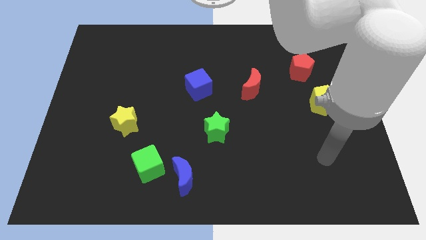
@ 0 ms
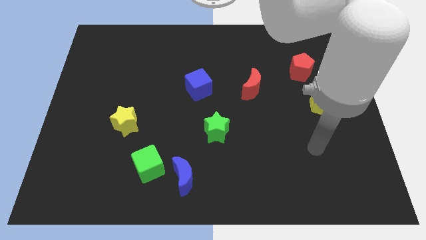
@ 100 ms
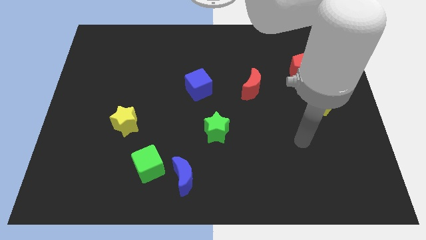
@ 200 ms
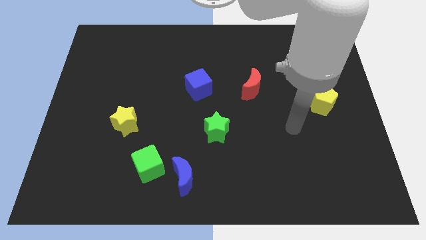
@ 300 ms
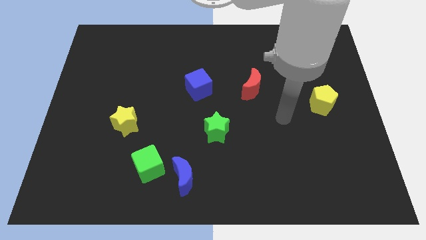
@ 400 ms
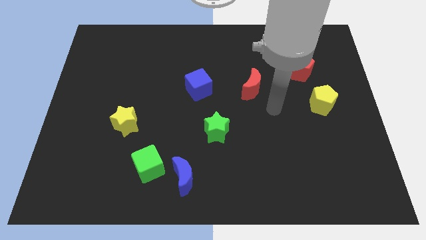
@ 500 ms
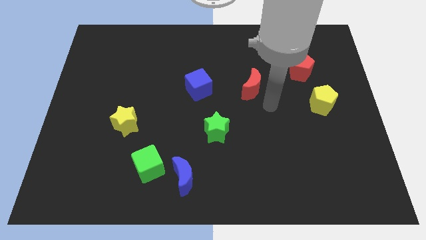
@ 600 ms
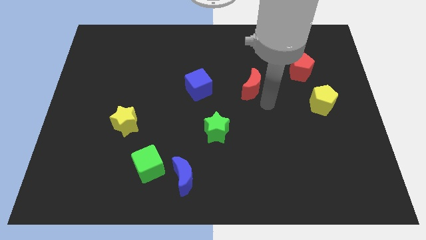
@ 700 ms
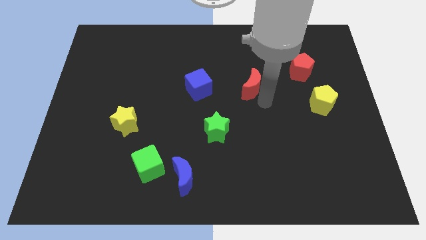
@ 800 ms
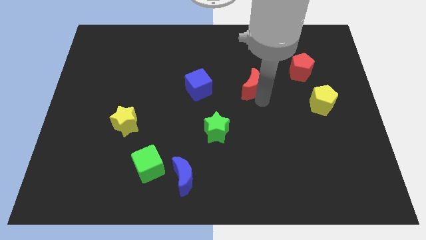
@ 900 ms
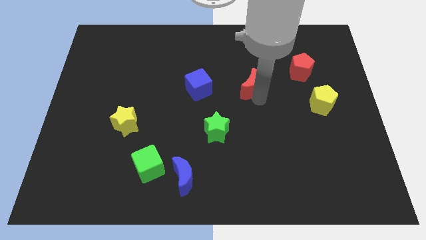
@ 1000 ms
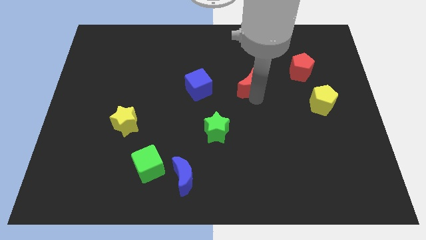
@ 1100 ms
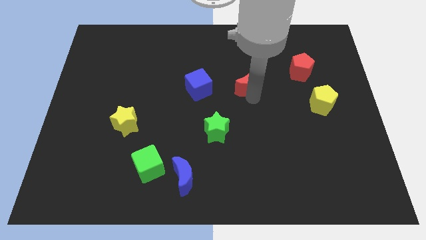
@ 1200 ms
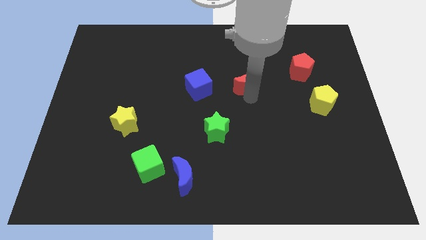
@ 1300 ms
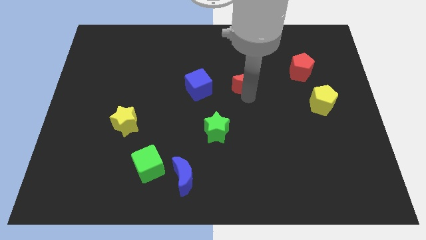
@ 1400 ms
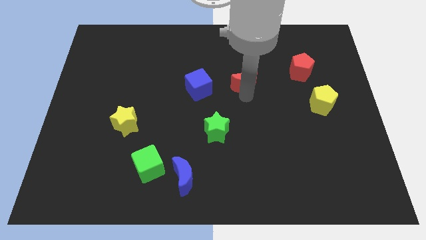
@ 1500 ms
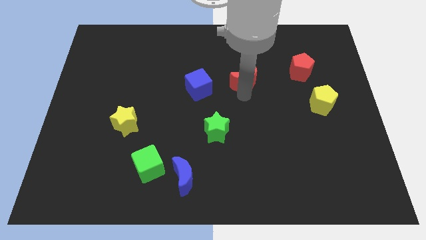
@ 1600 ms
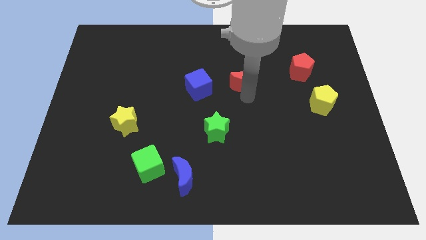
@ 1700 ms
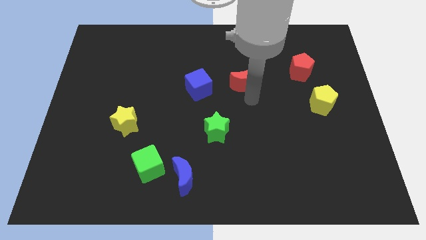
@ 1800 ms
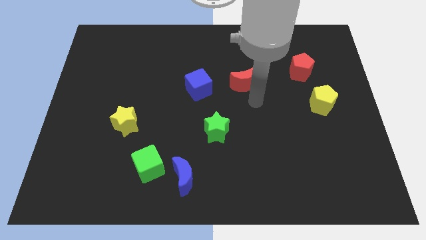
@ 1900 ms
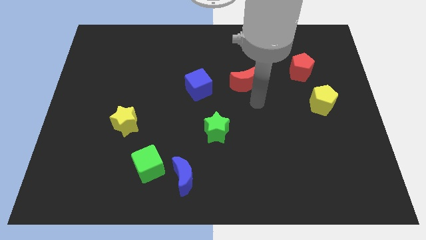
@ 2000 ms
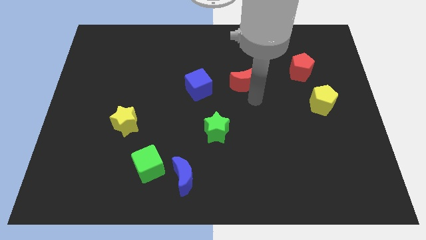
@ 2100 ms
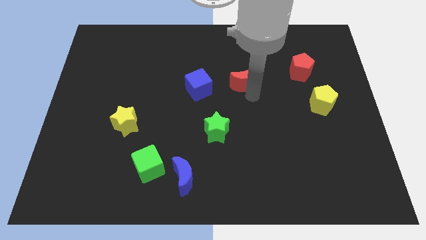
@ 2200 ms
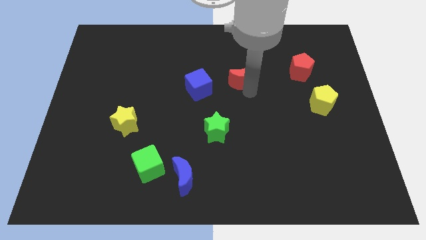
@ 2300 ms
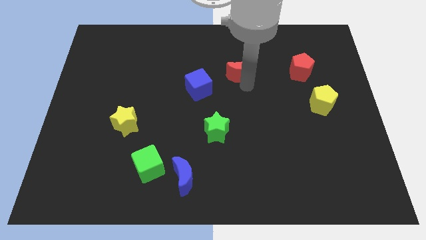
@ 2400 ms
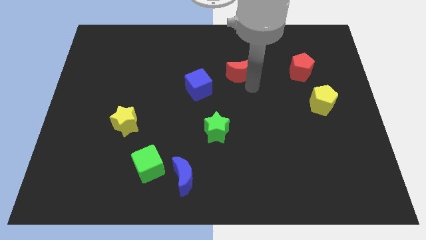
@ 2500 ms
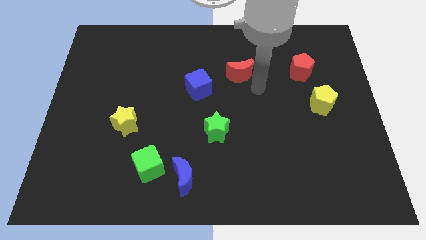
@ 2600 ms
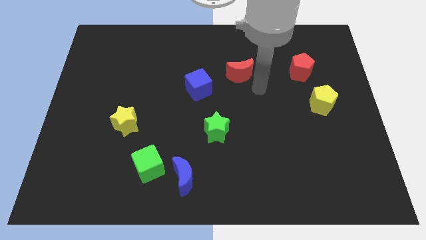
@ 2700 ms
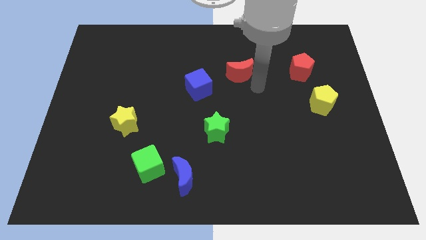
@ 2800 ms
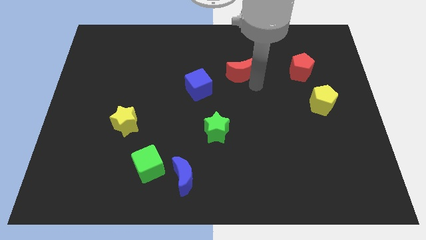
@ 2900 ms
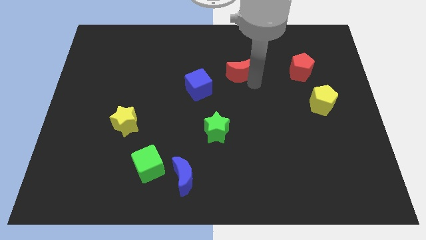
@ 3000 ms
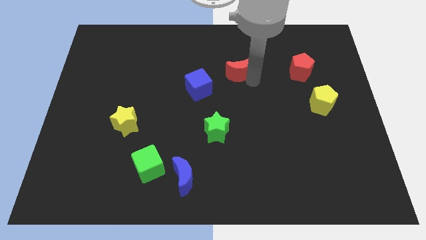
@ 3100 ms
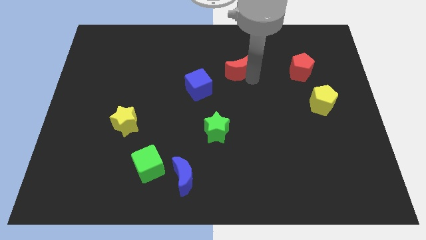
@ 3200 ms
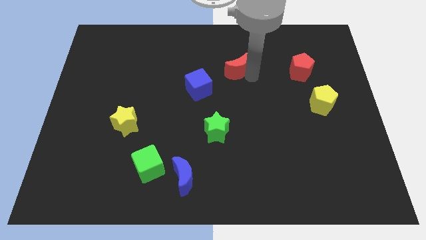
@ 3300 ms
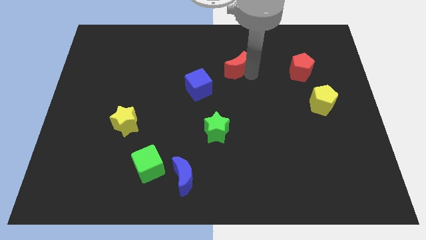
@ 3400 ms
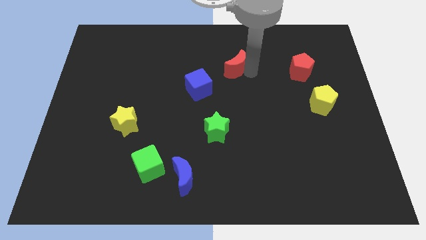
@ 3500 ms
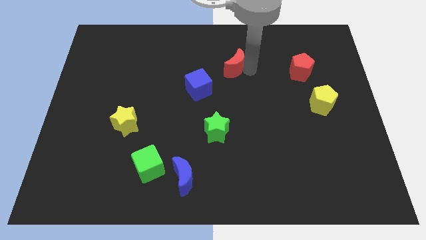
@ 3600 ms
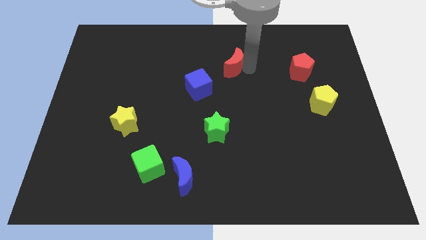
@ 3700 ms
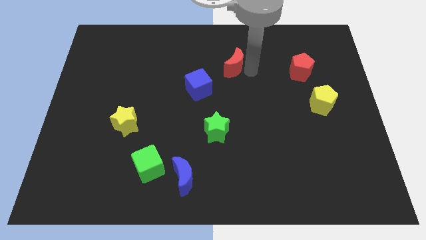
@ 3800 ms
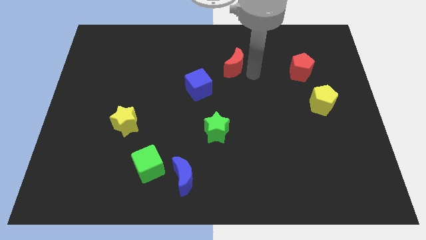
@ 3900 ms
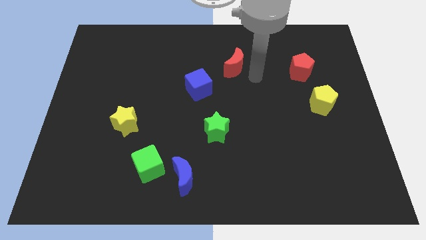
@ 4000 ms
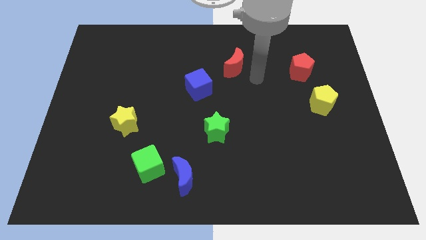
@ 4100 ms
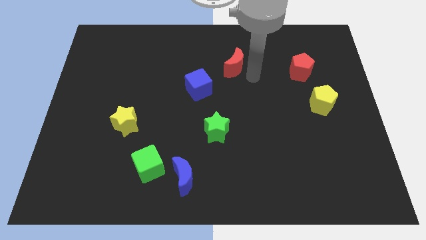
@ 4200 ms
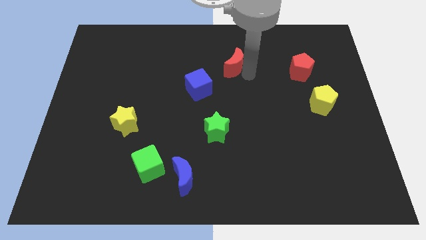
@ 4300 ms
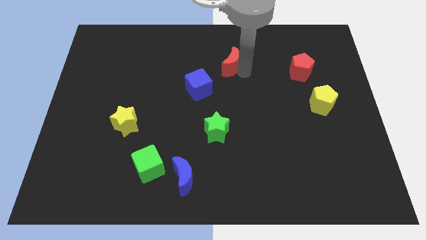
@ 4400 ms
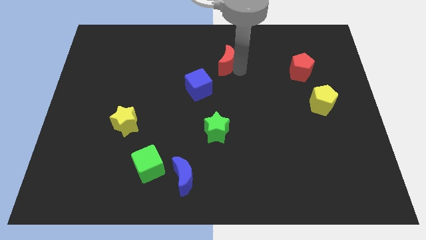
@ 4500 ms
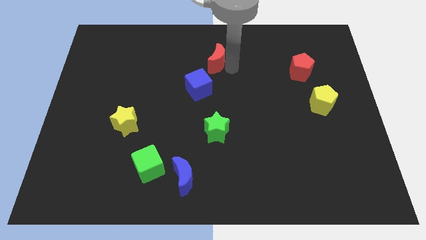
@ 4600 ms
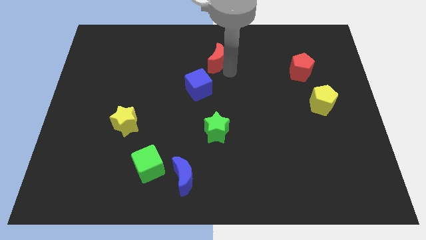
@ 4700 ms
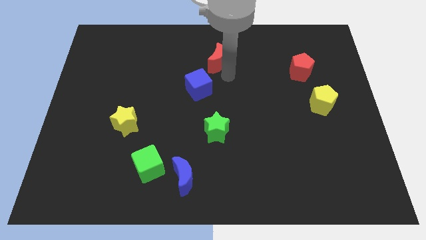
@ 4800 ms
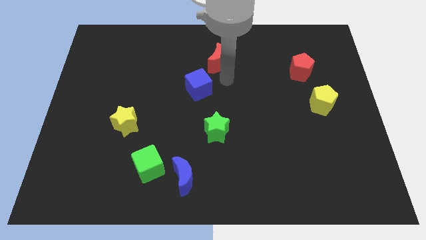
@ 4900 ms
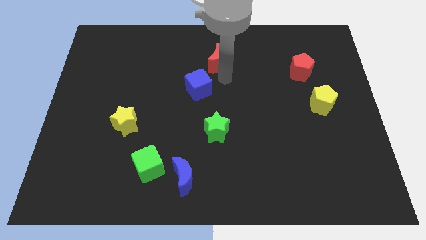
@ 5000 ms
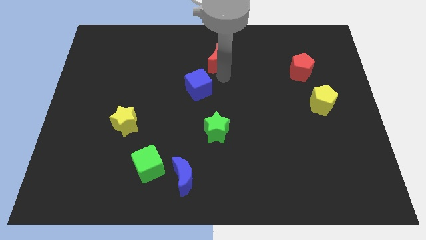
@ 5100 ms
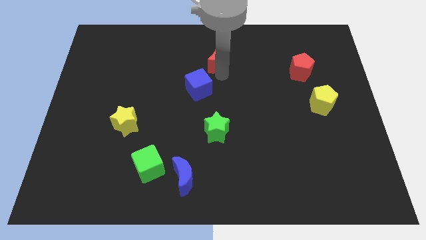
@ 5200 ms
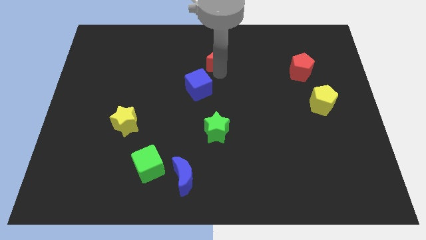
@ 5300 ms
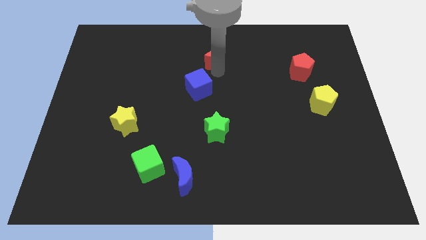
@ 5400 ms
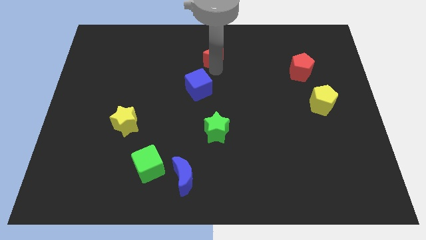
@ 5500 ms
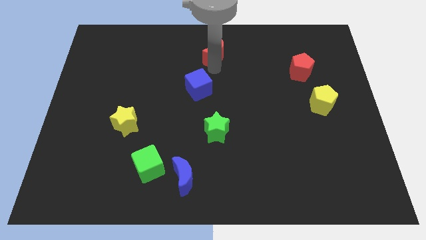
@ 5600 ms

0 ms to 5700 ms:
move the red moon to the top

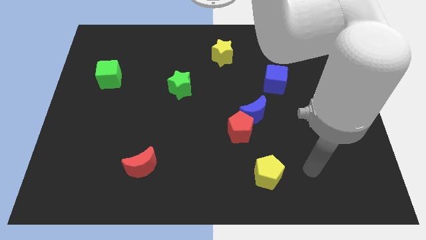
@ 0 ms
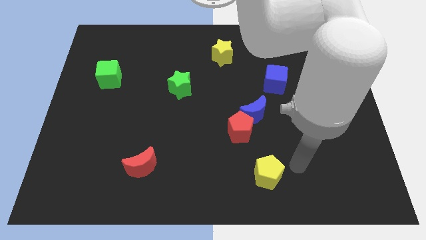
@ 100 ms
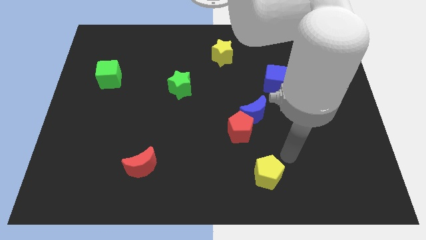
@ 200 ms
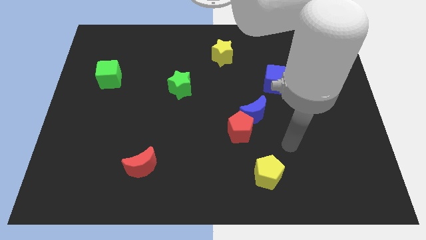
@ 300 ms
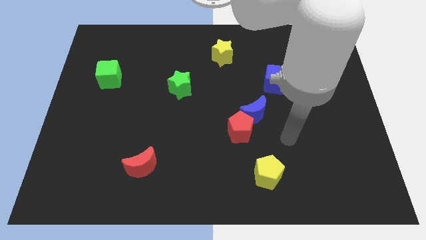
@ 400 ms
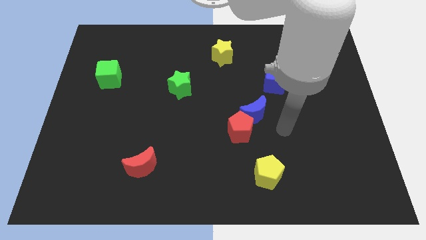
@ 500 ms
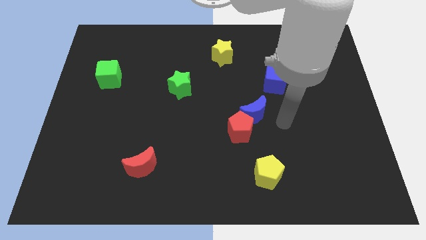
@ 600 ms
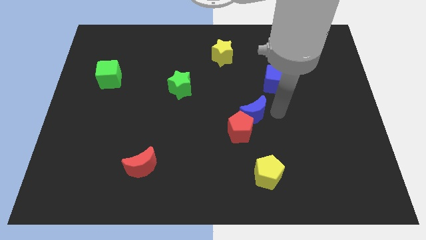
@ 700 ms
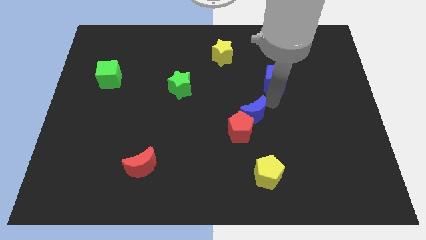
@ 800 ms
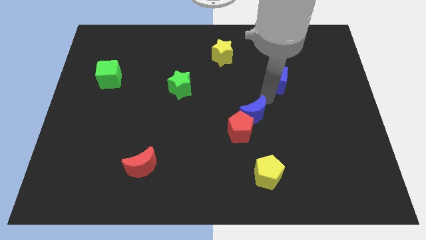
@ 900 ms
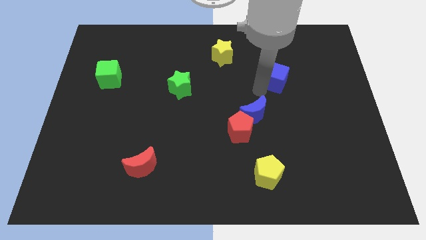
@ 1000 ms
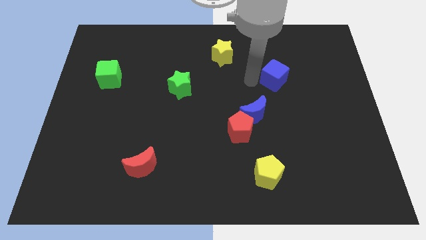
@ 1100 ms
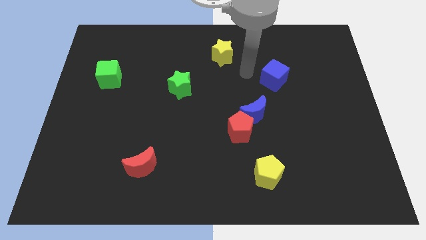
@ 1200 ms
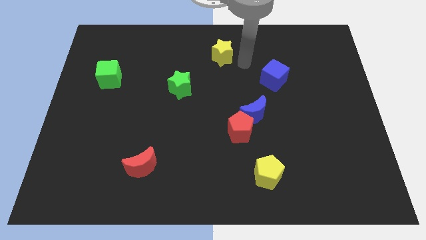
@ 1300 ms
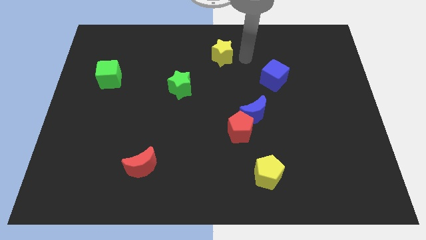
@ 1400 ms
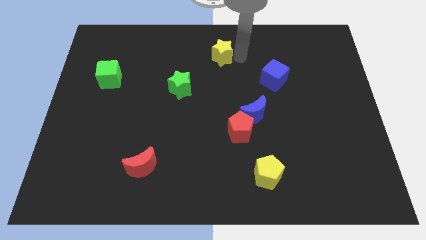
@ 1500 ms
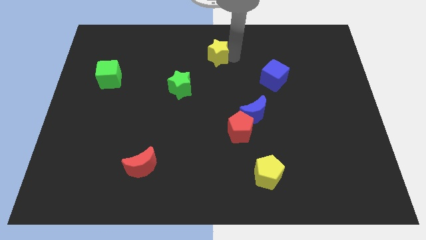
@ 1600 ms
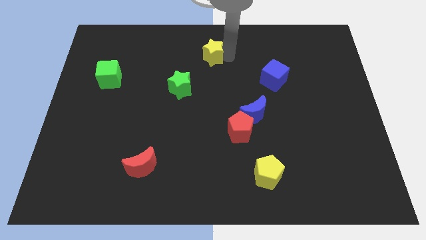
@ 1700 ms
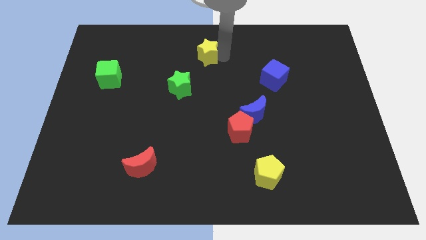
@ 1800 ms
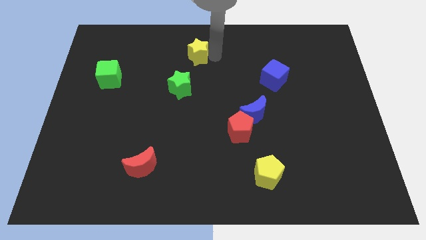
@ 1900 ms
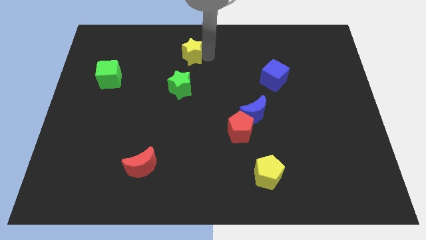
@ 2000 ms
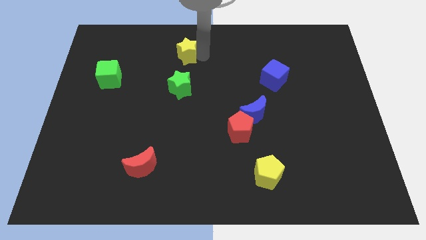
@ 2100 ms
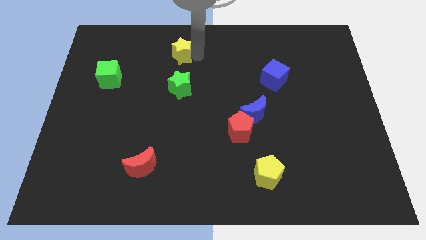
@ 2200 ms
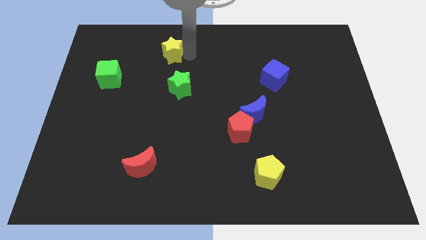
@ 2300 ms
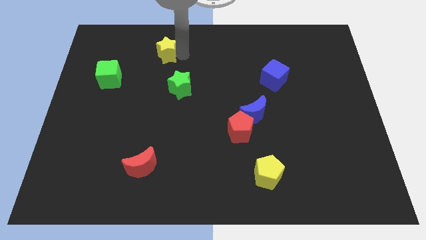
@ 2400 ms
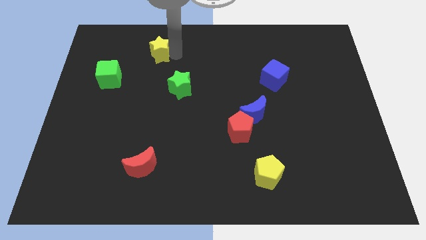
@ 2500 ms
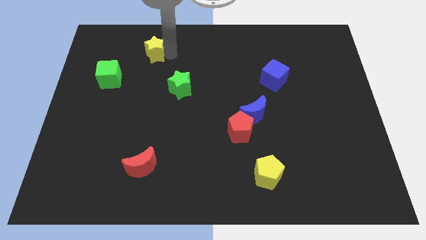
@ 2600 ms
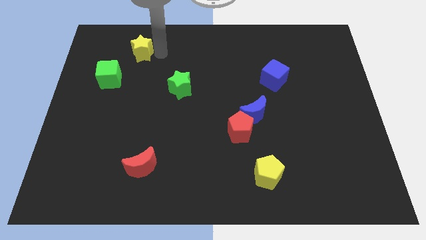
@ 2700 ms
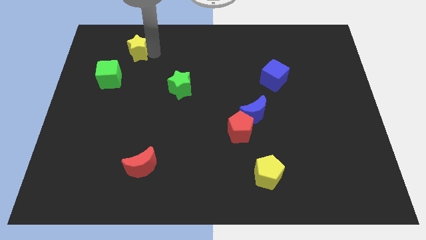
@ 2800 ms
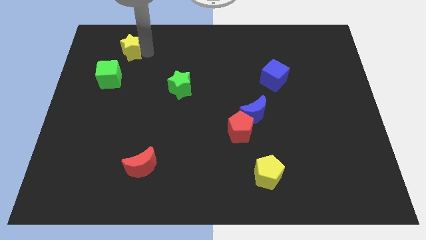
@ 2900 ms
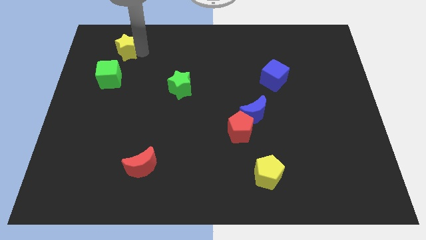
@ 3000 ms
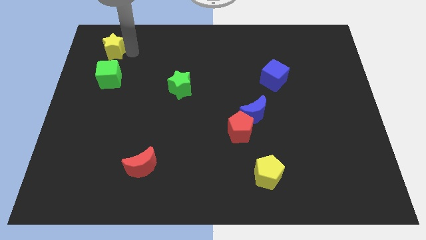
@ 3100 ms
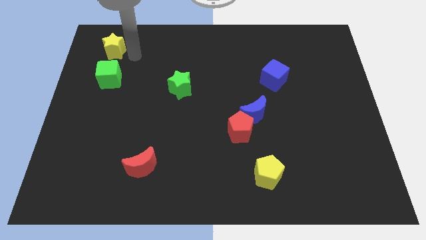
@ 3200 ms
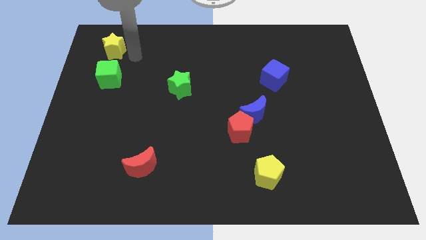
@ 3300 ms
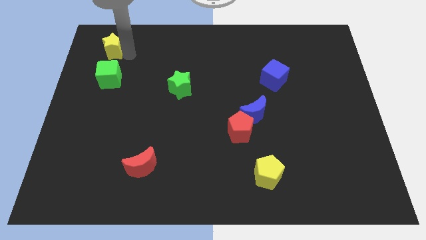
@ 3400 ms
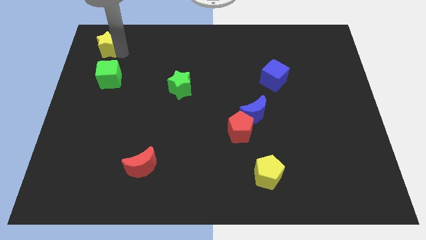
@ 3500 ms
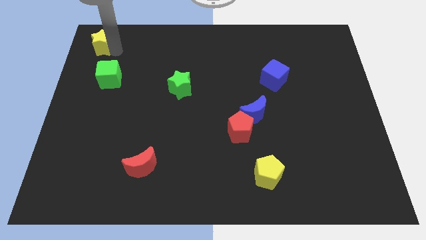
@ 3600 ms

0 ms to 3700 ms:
push the yellow star to the upper left corner
